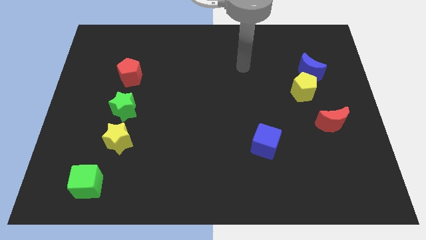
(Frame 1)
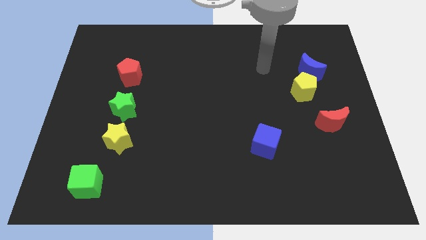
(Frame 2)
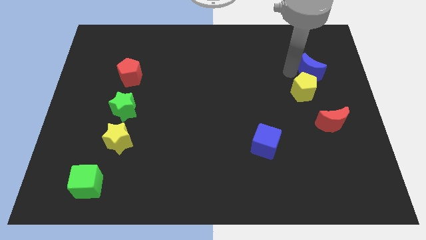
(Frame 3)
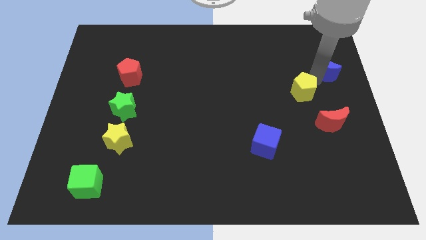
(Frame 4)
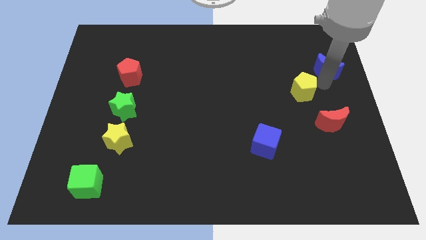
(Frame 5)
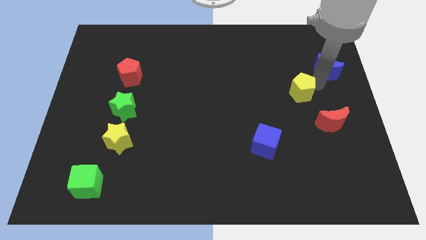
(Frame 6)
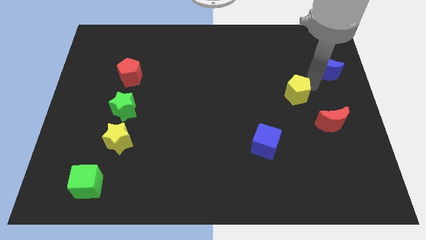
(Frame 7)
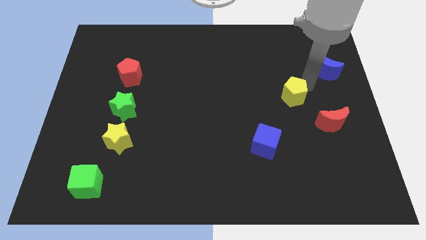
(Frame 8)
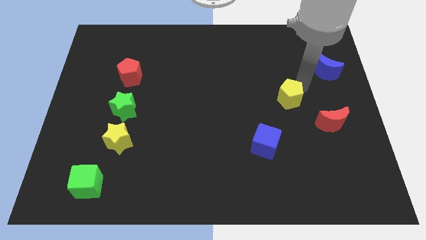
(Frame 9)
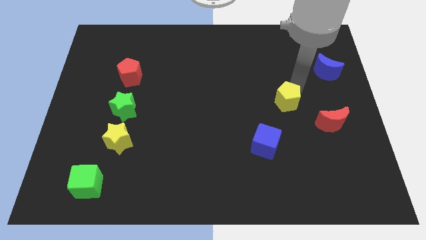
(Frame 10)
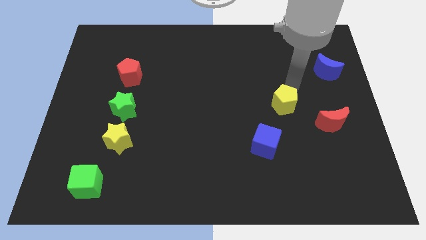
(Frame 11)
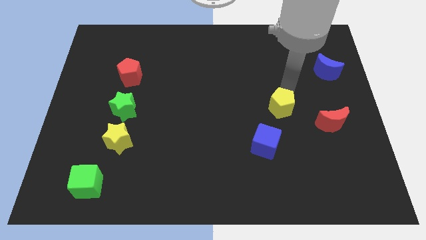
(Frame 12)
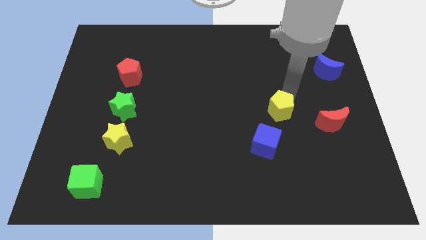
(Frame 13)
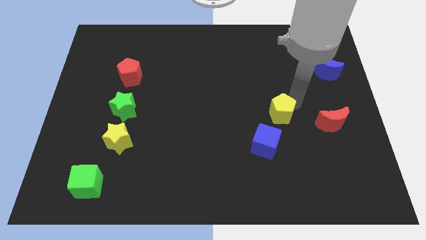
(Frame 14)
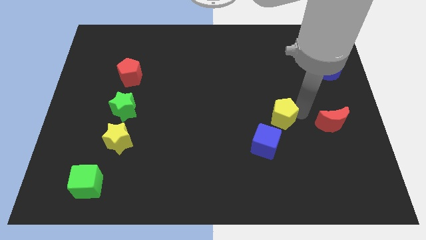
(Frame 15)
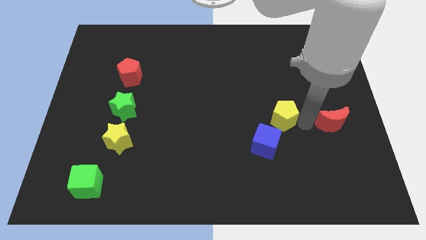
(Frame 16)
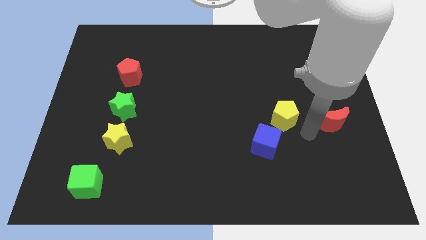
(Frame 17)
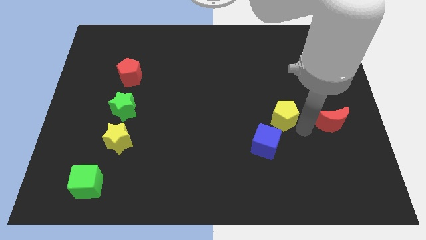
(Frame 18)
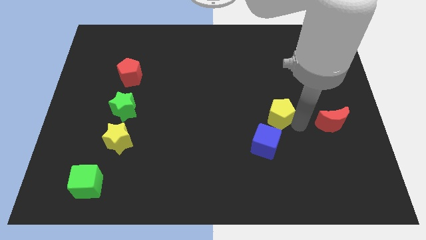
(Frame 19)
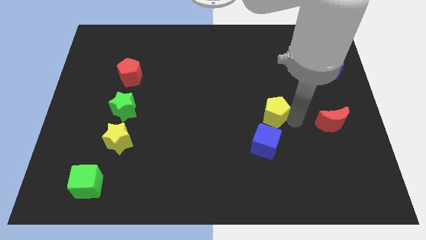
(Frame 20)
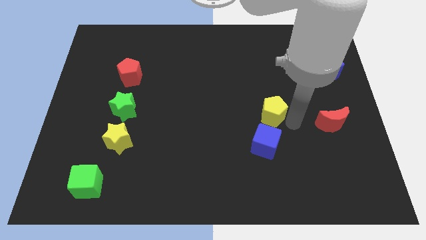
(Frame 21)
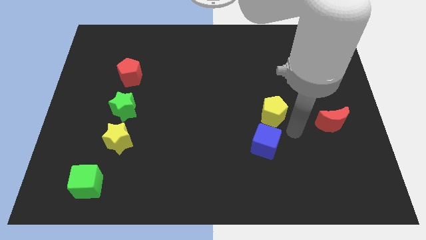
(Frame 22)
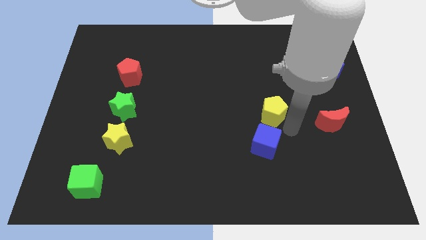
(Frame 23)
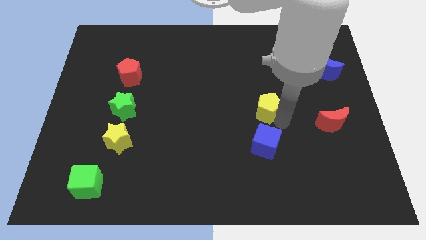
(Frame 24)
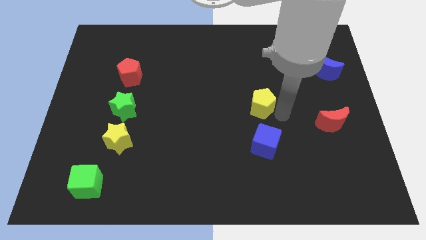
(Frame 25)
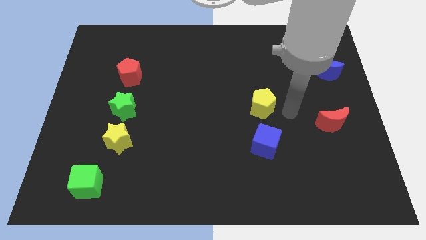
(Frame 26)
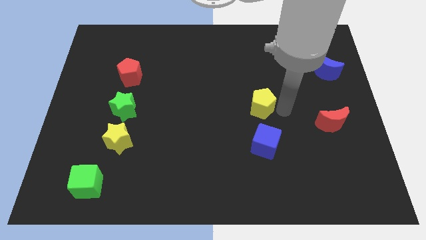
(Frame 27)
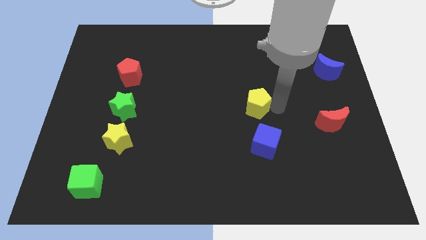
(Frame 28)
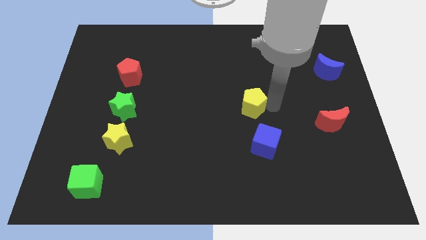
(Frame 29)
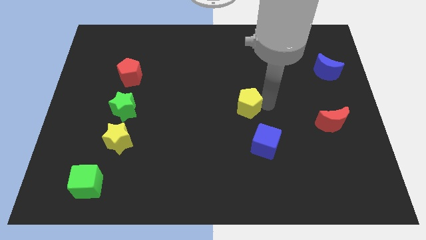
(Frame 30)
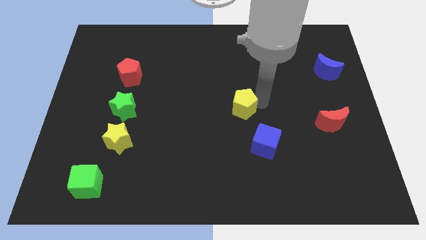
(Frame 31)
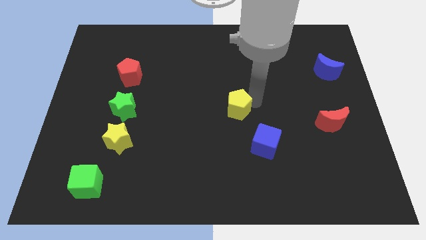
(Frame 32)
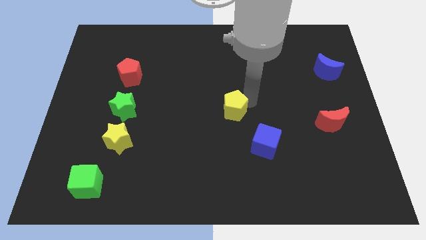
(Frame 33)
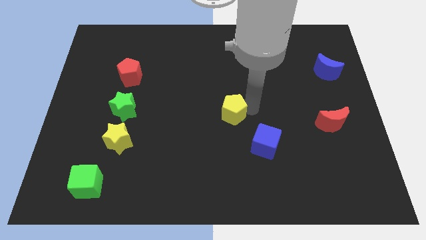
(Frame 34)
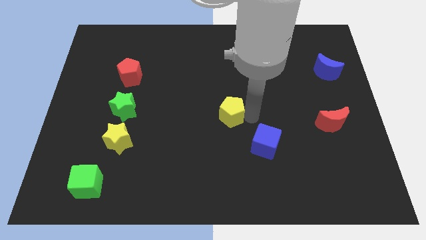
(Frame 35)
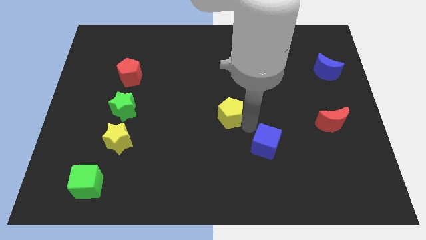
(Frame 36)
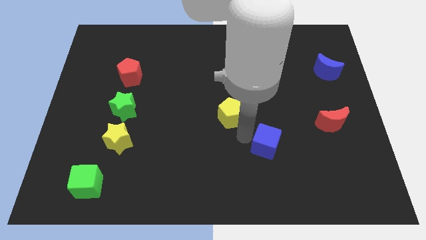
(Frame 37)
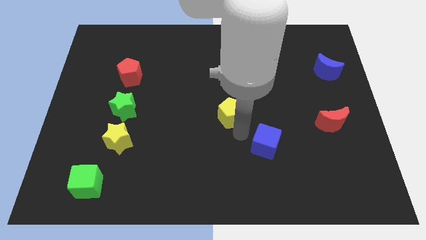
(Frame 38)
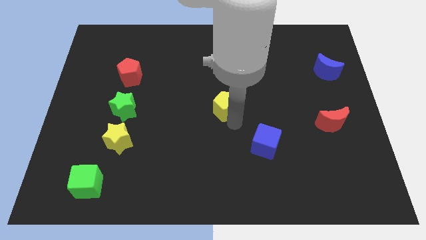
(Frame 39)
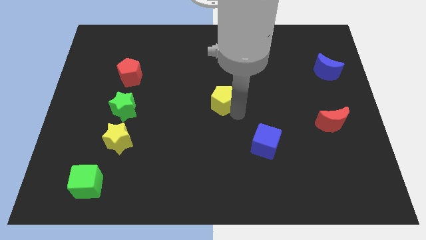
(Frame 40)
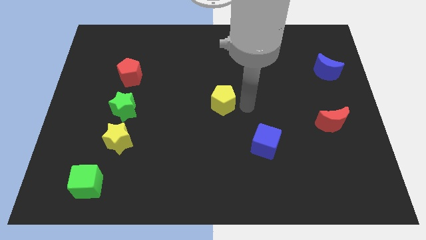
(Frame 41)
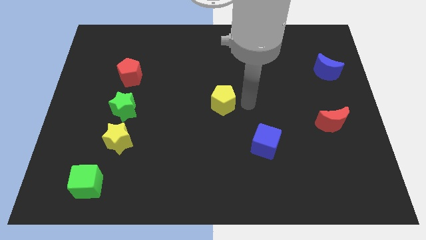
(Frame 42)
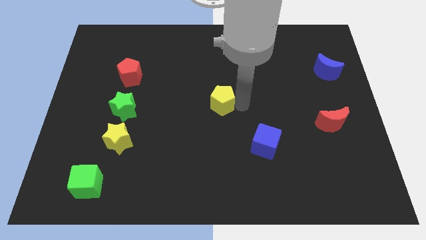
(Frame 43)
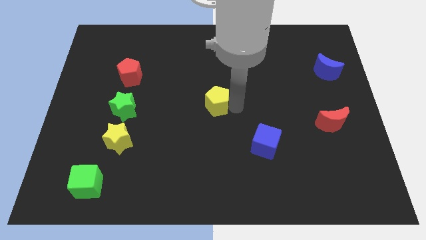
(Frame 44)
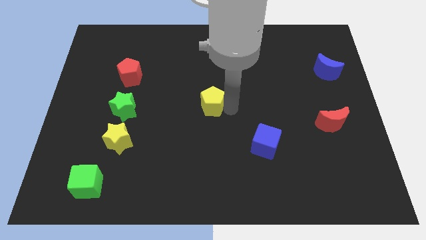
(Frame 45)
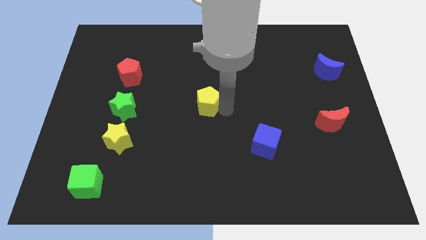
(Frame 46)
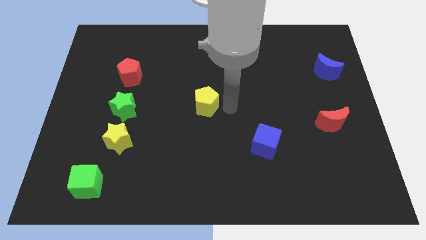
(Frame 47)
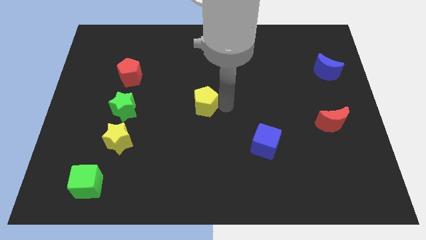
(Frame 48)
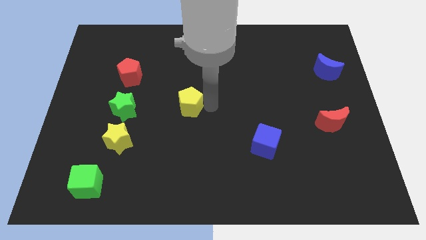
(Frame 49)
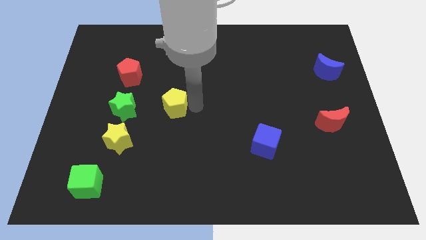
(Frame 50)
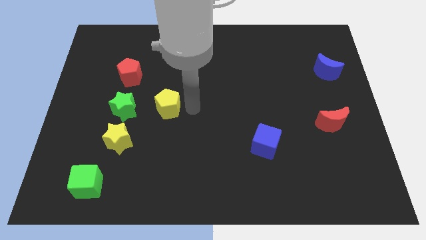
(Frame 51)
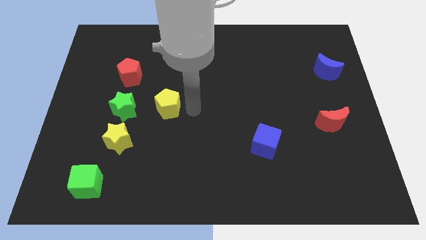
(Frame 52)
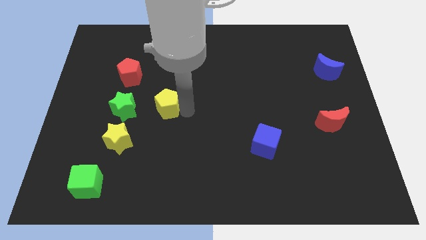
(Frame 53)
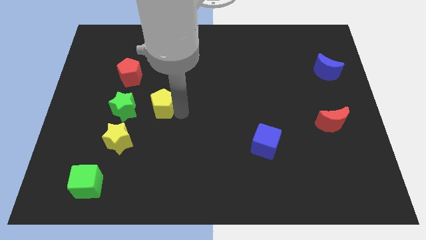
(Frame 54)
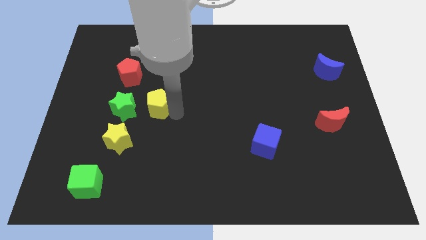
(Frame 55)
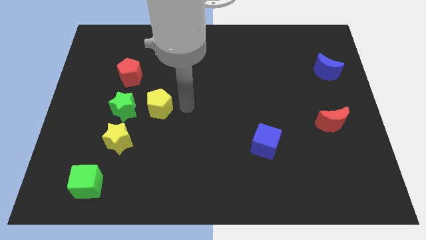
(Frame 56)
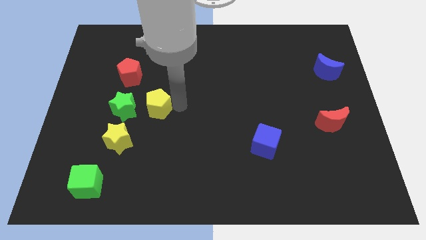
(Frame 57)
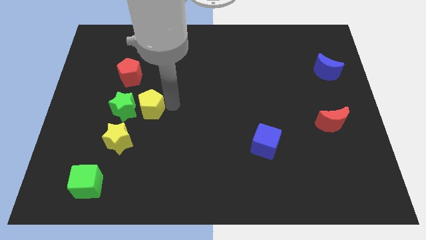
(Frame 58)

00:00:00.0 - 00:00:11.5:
move the yellow pentagon to the green star

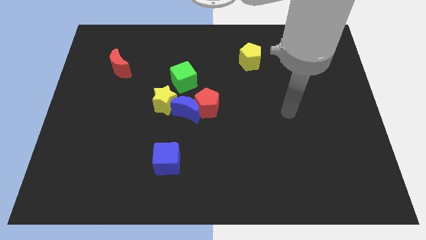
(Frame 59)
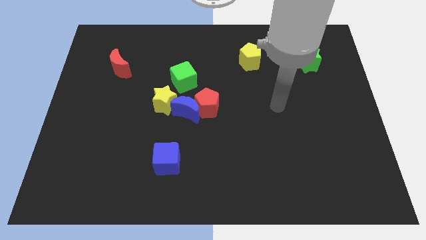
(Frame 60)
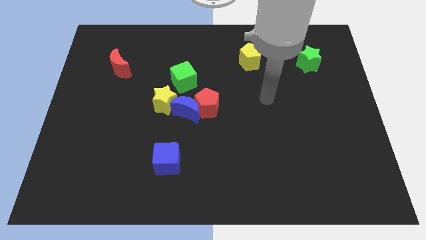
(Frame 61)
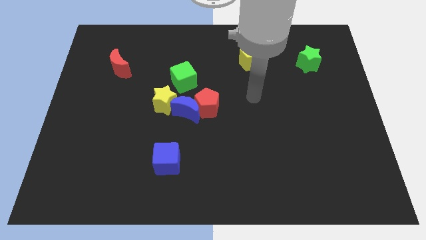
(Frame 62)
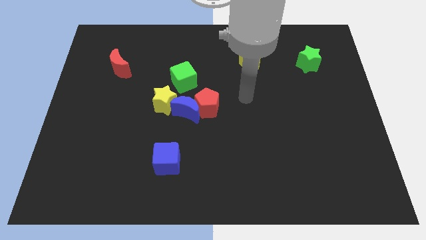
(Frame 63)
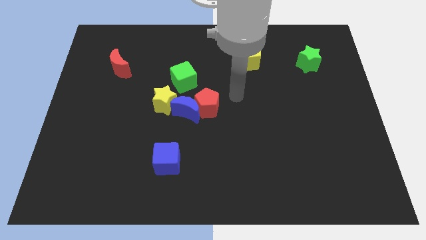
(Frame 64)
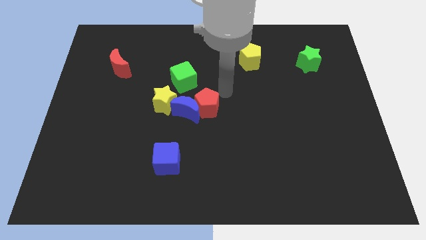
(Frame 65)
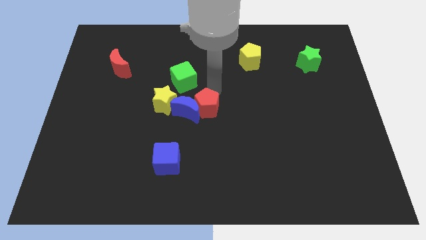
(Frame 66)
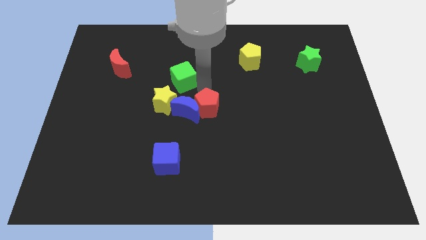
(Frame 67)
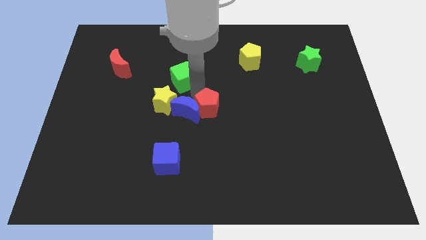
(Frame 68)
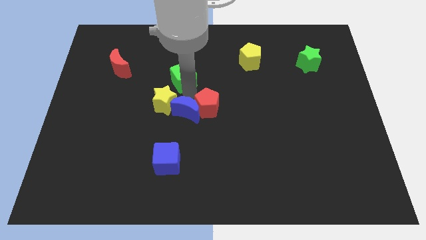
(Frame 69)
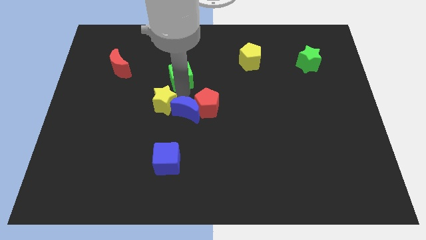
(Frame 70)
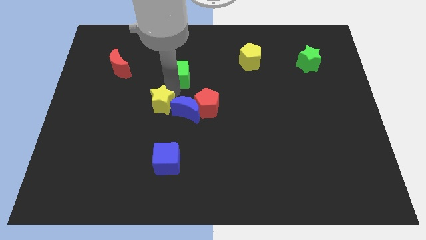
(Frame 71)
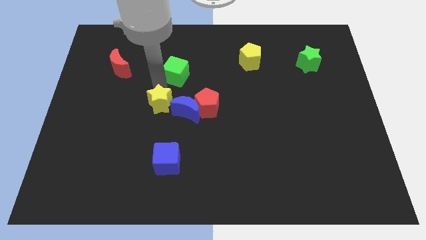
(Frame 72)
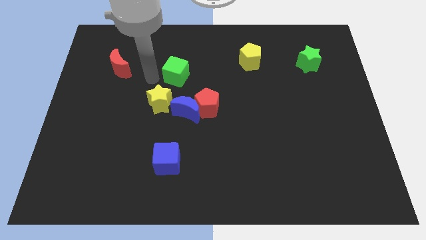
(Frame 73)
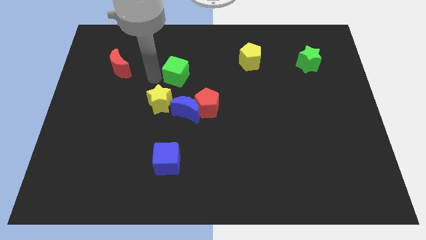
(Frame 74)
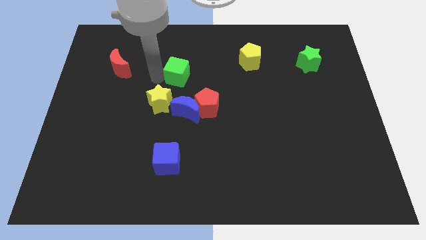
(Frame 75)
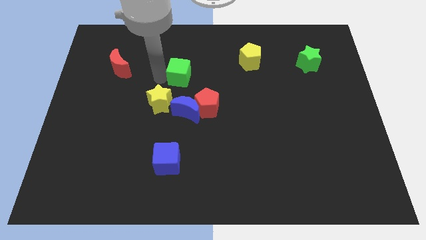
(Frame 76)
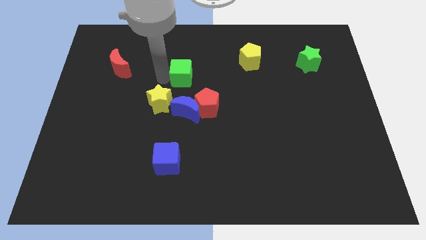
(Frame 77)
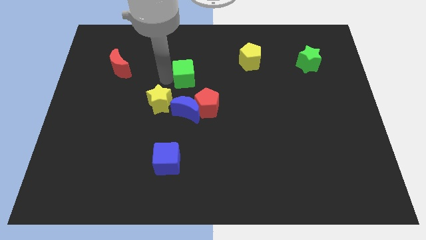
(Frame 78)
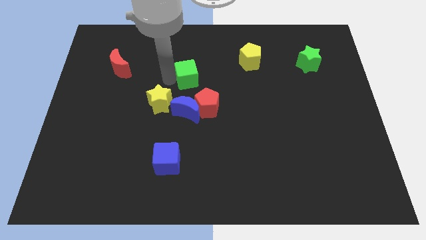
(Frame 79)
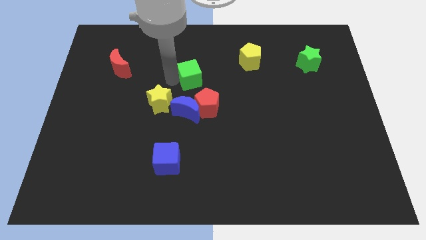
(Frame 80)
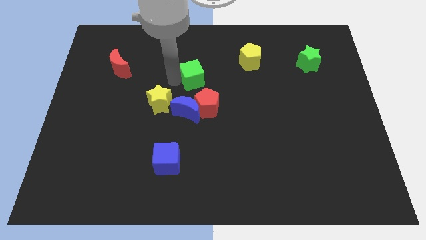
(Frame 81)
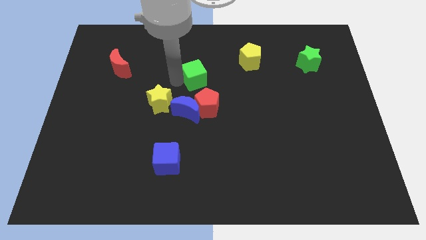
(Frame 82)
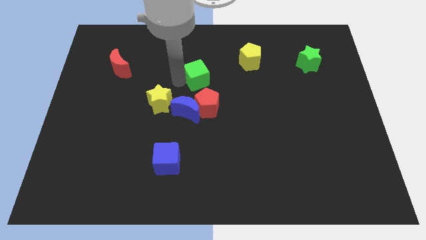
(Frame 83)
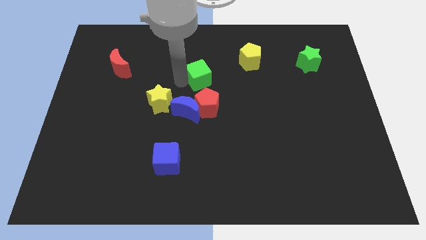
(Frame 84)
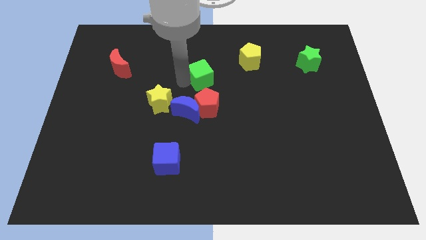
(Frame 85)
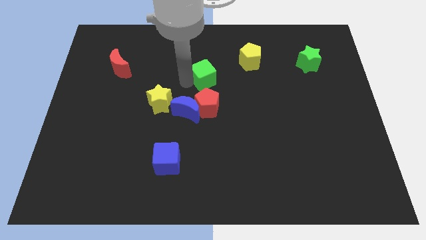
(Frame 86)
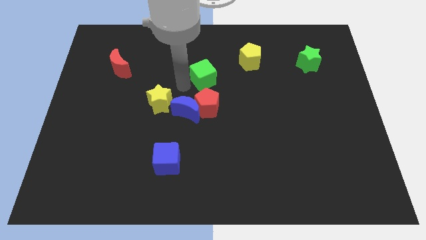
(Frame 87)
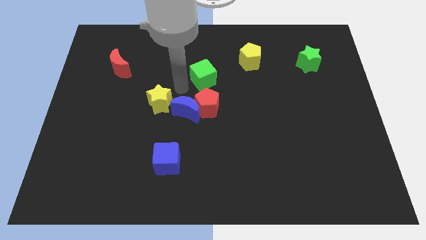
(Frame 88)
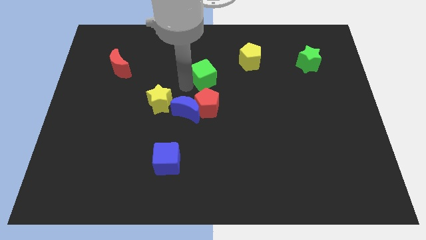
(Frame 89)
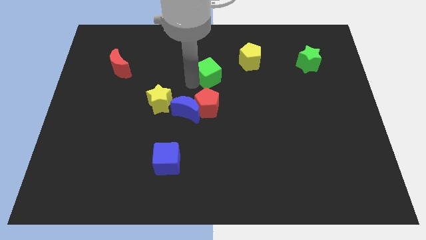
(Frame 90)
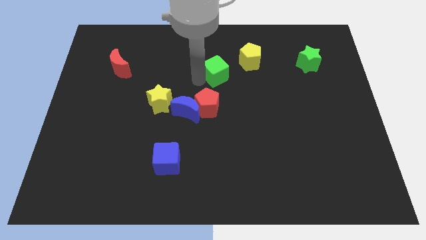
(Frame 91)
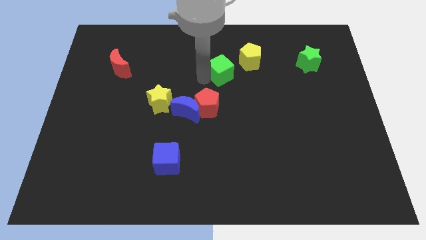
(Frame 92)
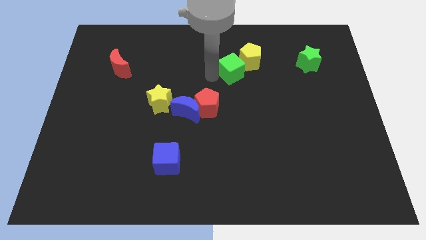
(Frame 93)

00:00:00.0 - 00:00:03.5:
put the green cube towards the yellow pentagon
